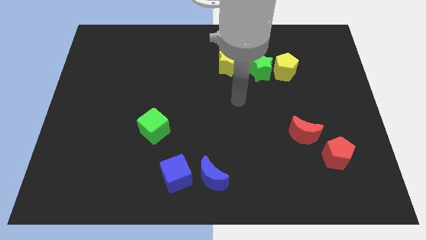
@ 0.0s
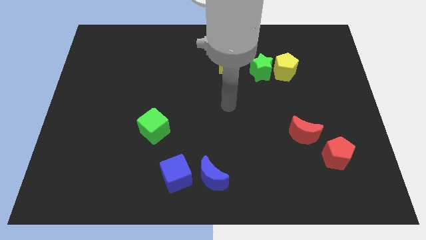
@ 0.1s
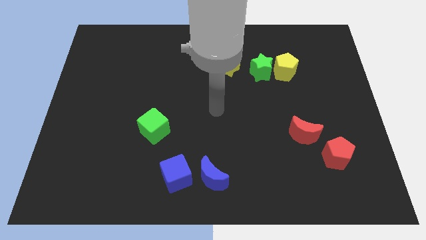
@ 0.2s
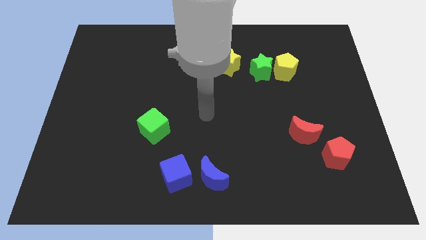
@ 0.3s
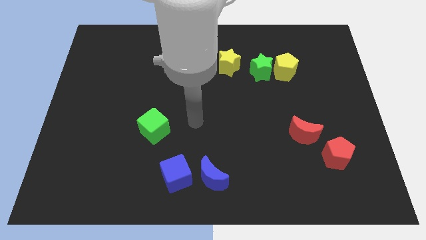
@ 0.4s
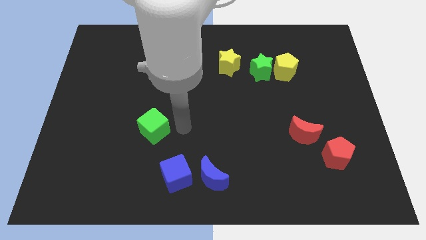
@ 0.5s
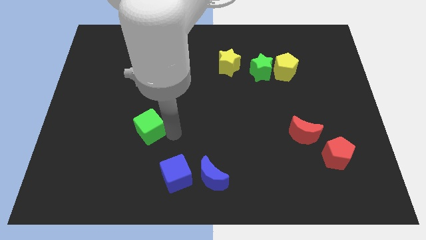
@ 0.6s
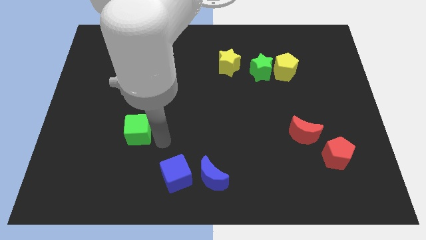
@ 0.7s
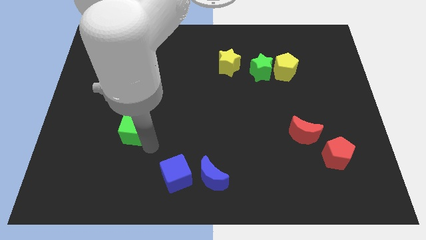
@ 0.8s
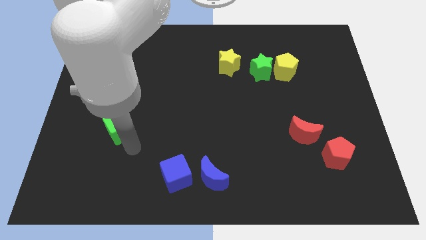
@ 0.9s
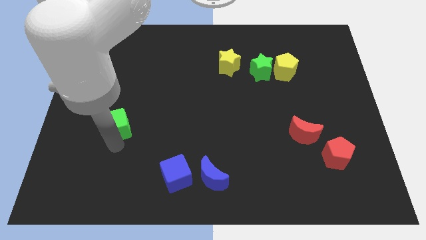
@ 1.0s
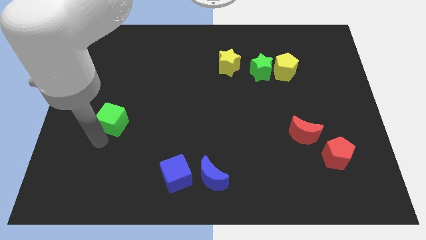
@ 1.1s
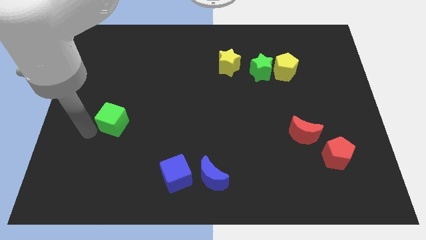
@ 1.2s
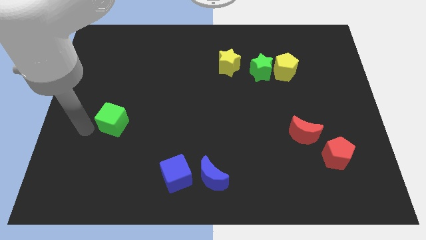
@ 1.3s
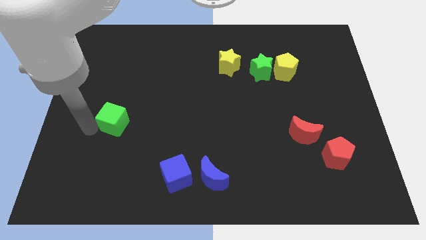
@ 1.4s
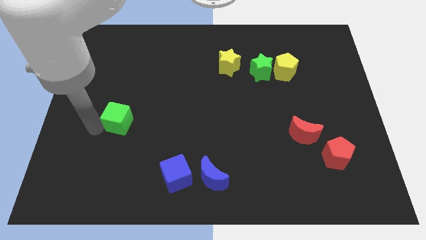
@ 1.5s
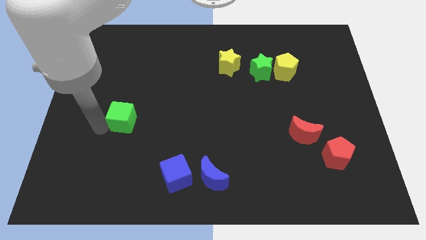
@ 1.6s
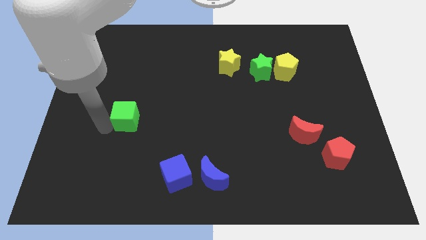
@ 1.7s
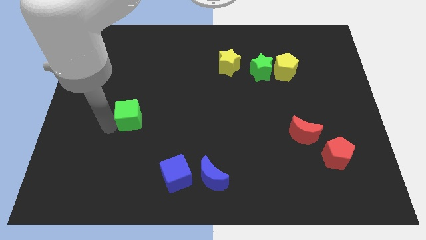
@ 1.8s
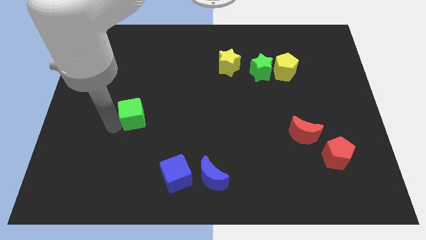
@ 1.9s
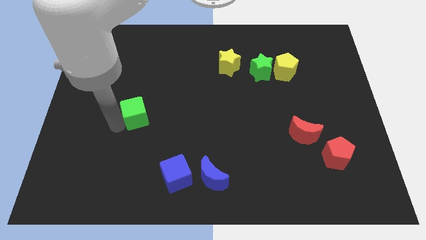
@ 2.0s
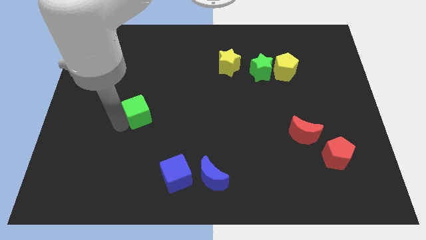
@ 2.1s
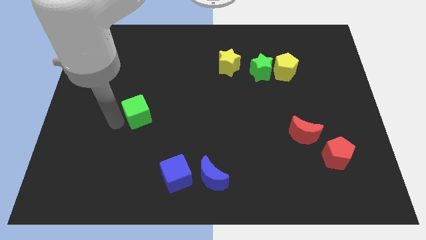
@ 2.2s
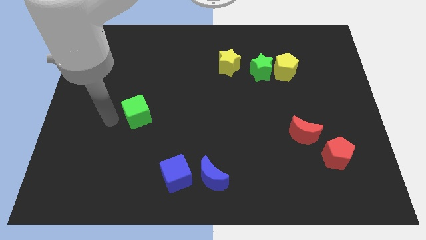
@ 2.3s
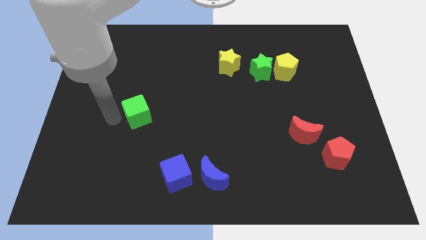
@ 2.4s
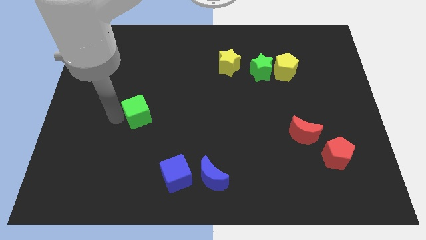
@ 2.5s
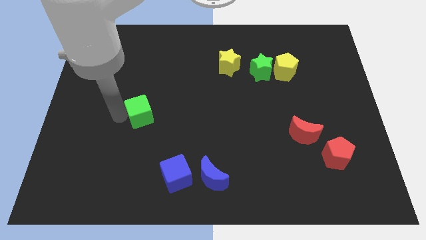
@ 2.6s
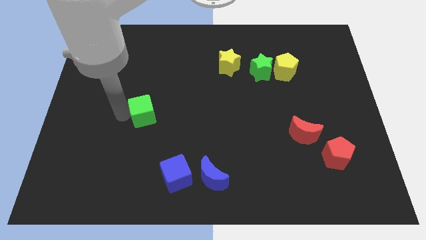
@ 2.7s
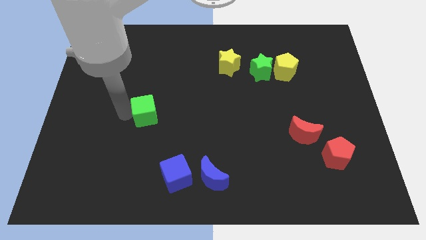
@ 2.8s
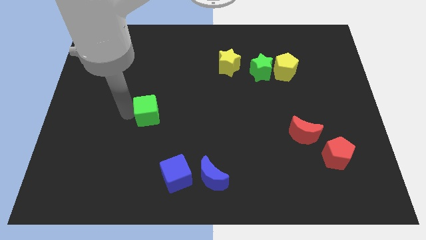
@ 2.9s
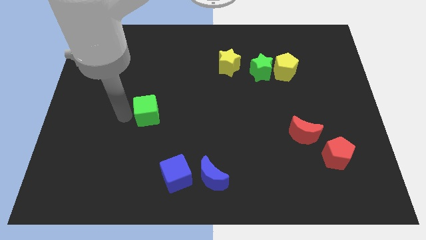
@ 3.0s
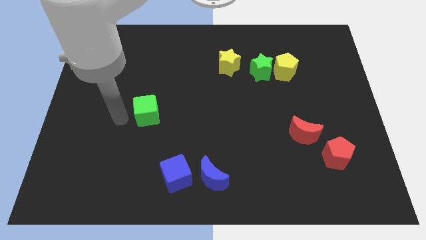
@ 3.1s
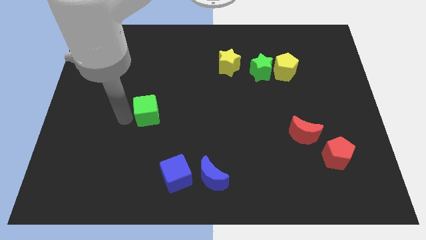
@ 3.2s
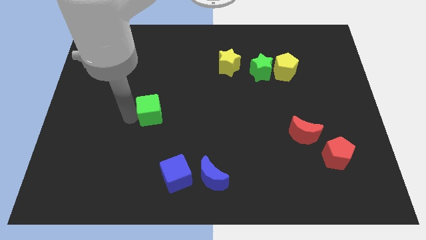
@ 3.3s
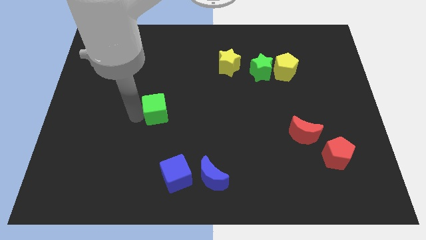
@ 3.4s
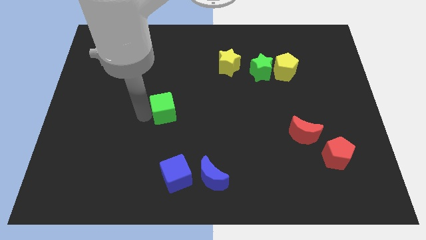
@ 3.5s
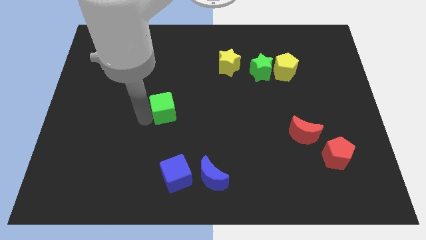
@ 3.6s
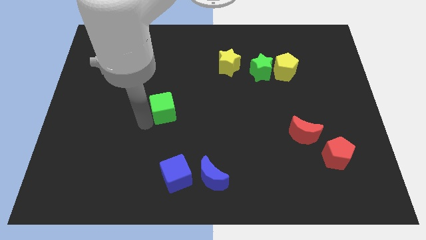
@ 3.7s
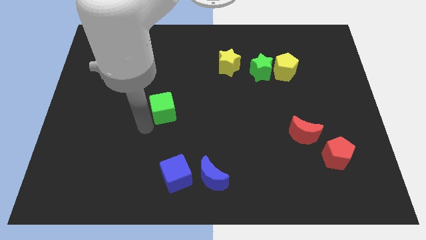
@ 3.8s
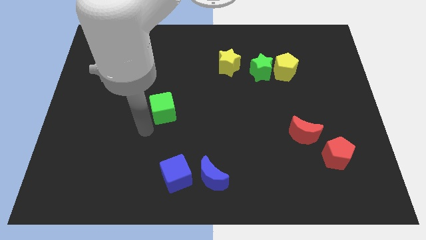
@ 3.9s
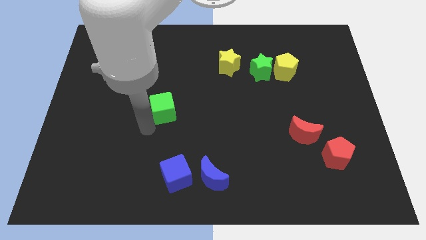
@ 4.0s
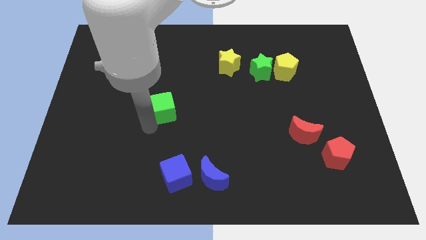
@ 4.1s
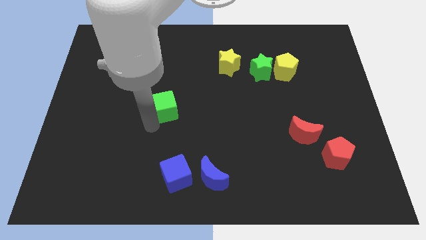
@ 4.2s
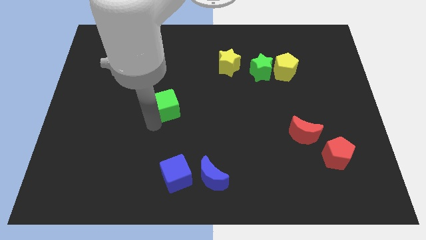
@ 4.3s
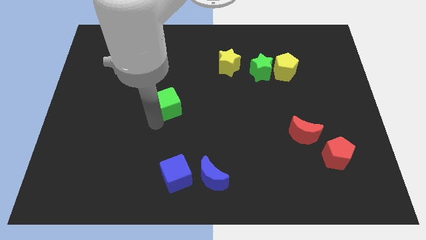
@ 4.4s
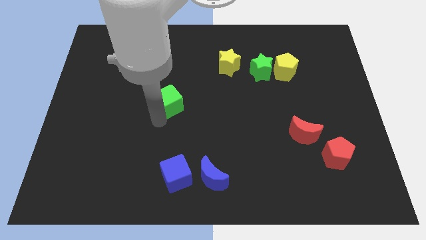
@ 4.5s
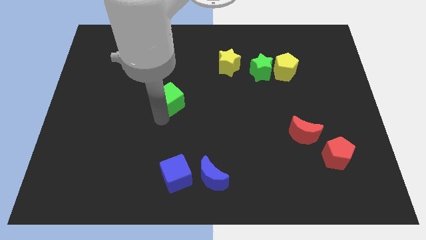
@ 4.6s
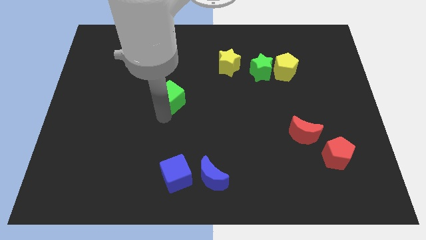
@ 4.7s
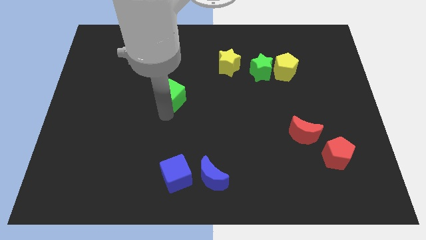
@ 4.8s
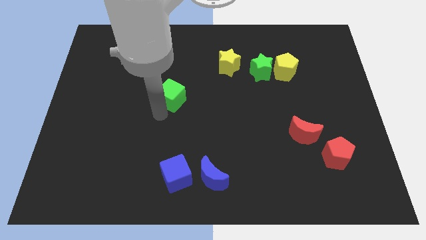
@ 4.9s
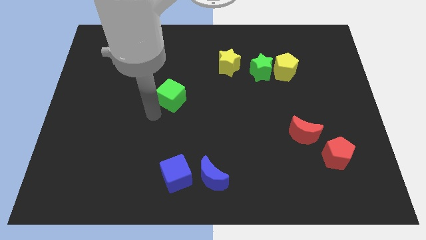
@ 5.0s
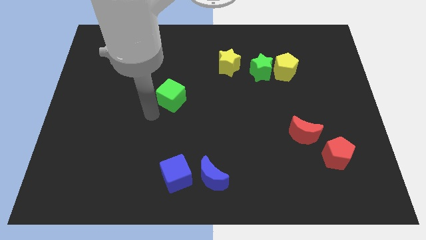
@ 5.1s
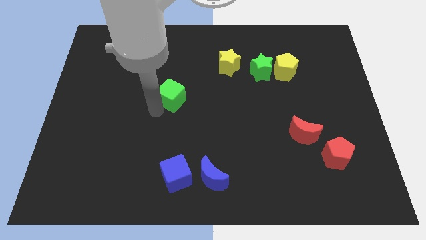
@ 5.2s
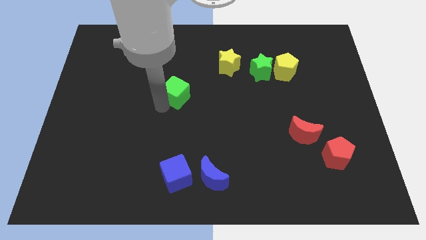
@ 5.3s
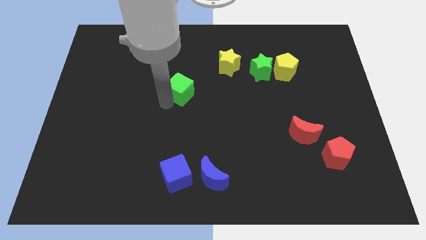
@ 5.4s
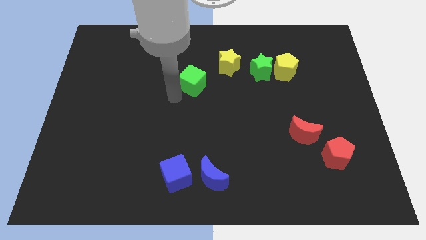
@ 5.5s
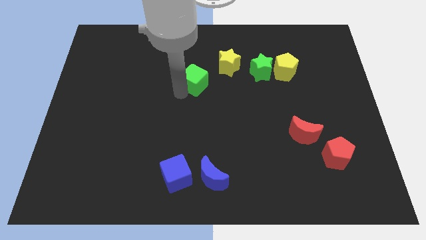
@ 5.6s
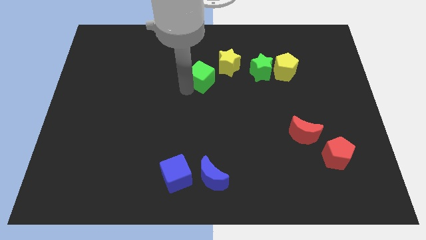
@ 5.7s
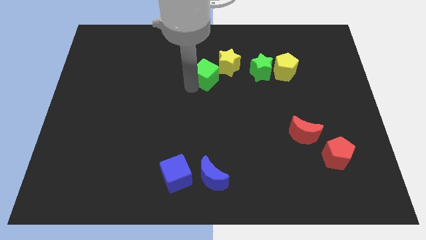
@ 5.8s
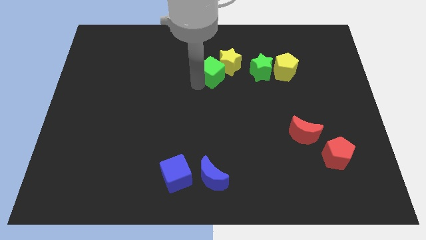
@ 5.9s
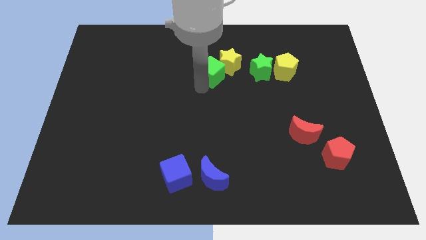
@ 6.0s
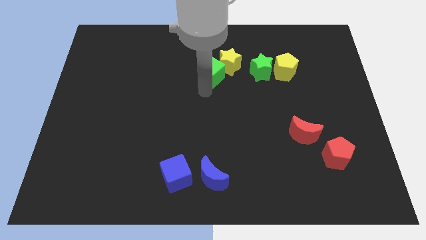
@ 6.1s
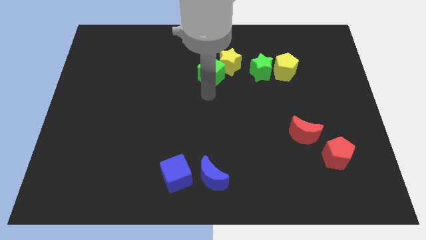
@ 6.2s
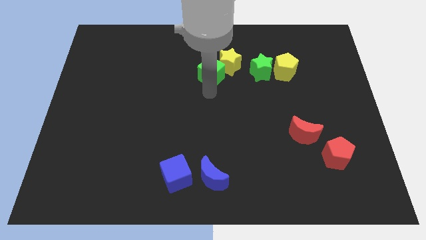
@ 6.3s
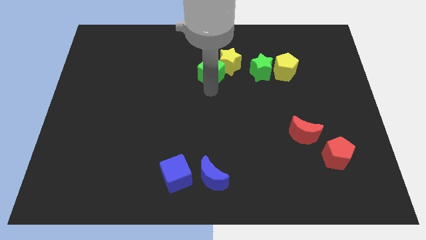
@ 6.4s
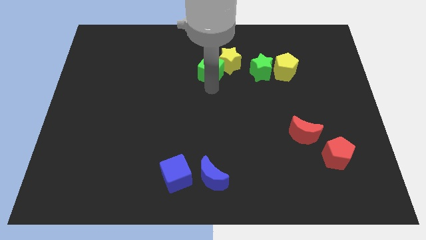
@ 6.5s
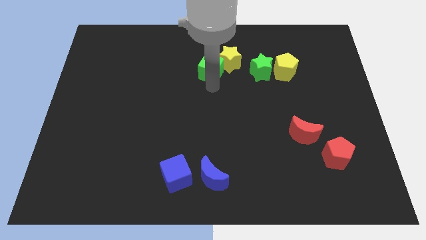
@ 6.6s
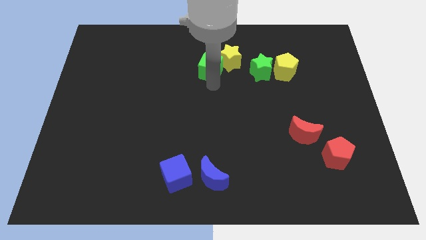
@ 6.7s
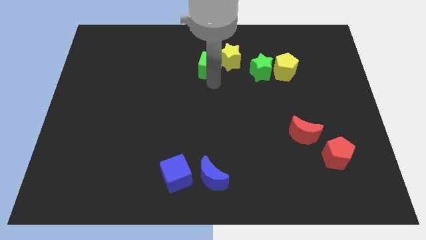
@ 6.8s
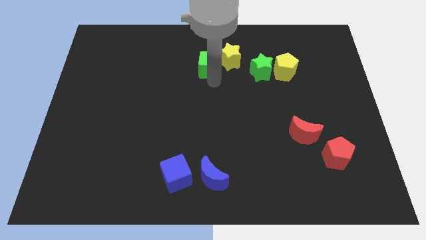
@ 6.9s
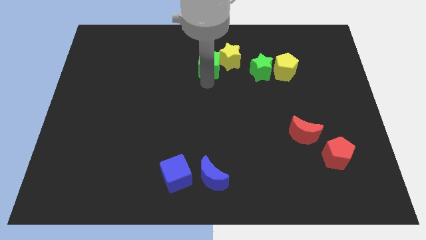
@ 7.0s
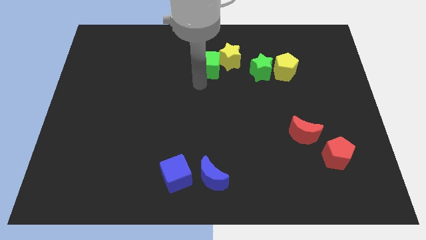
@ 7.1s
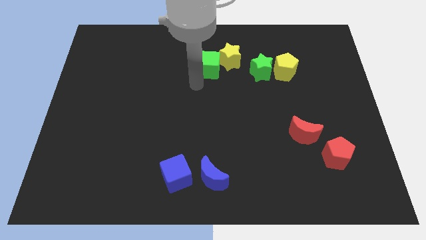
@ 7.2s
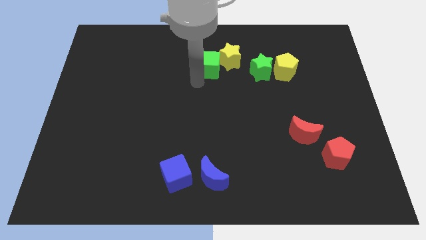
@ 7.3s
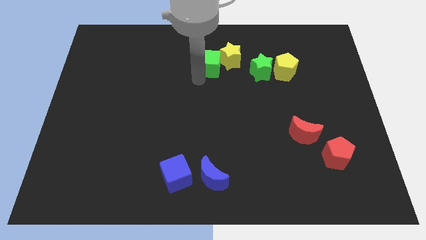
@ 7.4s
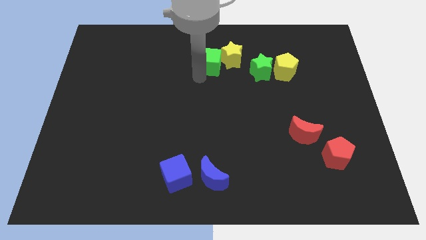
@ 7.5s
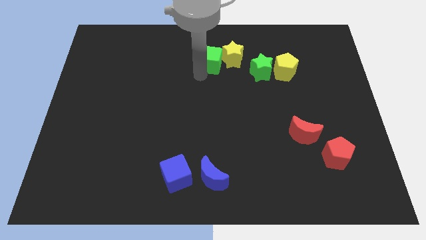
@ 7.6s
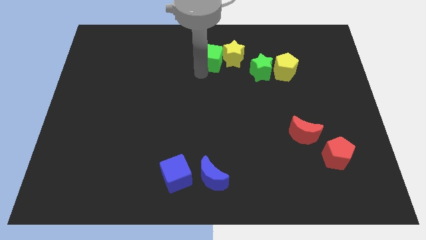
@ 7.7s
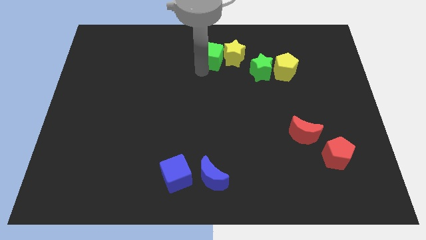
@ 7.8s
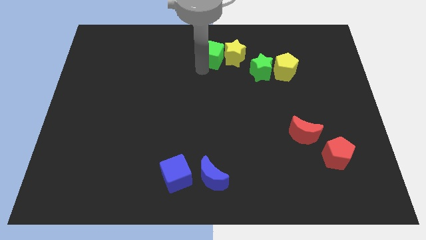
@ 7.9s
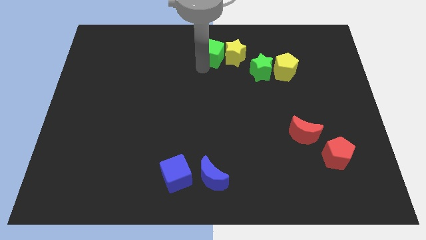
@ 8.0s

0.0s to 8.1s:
move the green cube to the top side
